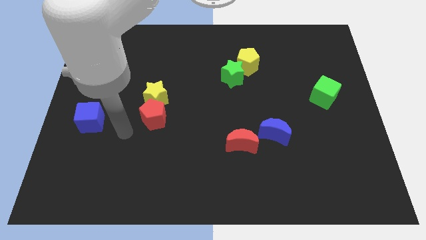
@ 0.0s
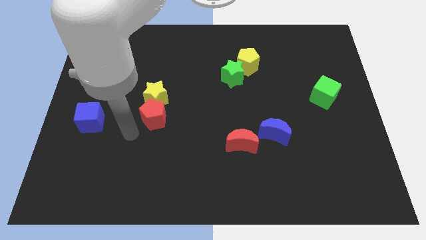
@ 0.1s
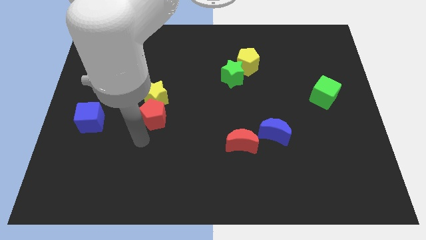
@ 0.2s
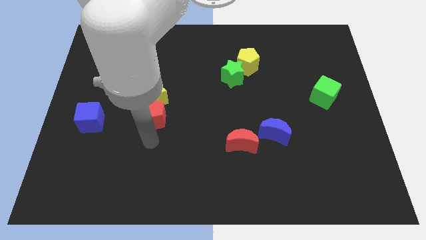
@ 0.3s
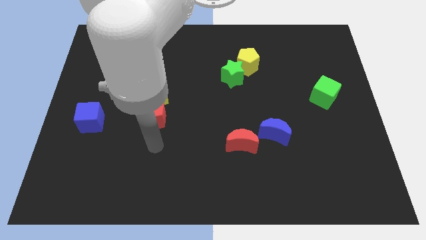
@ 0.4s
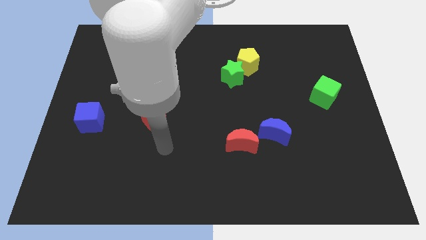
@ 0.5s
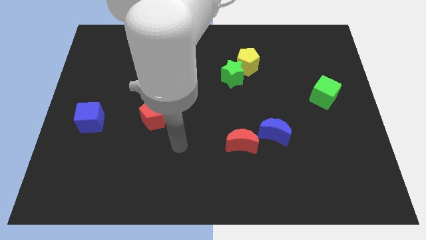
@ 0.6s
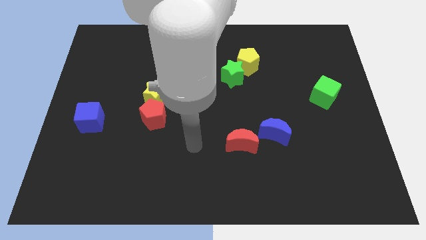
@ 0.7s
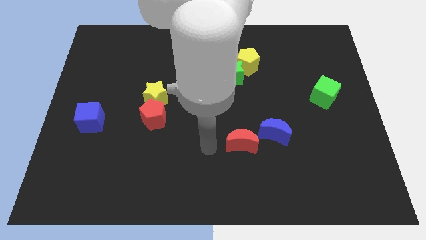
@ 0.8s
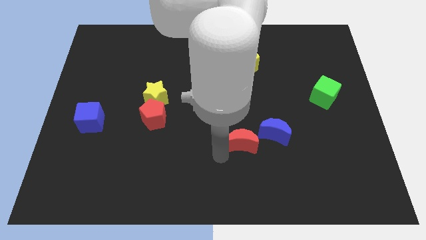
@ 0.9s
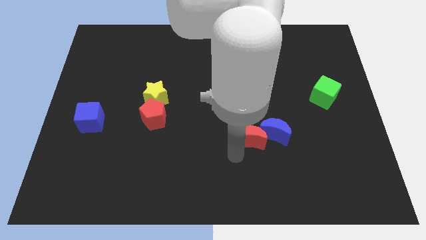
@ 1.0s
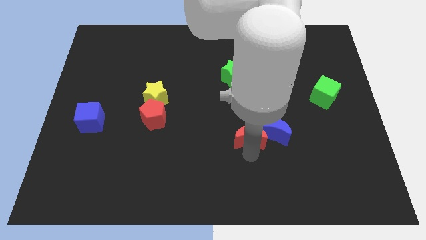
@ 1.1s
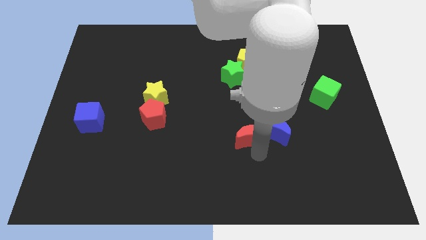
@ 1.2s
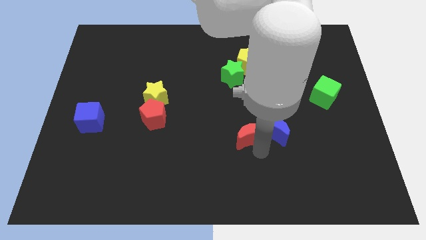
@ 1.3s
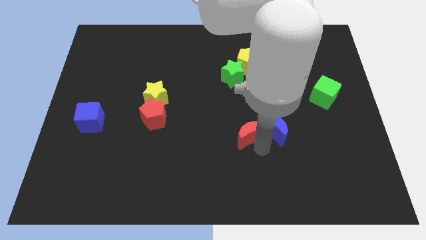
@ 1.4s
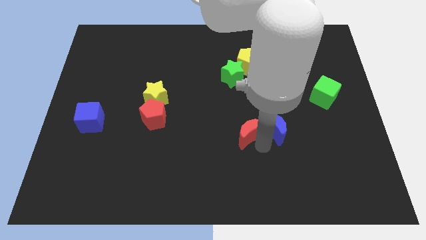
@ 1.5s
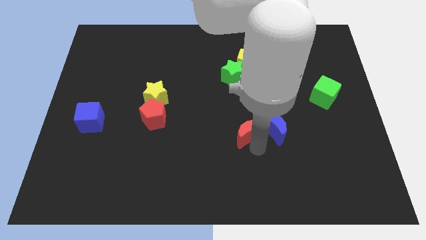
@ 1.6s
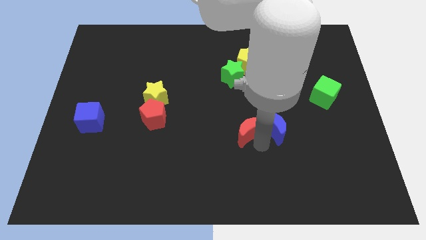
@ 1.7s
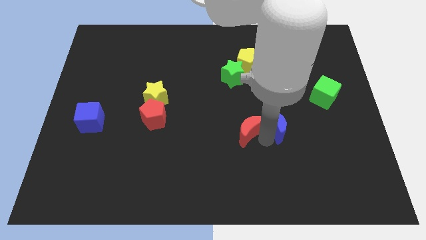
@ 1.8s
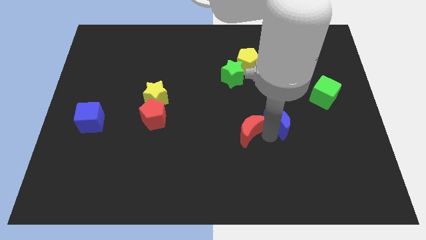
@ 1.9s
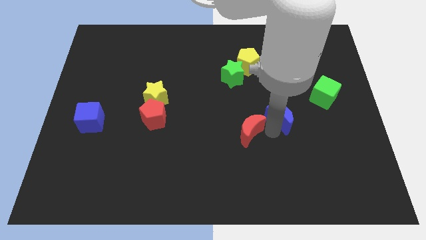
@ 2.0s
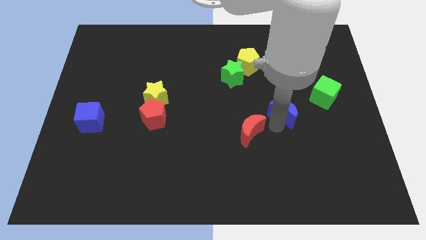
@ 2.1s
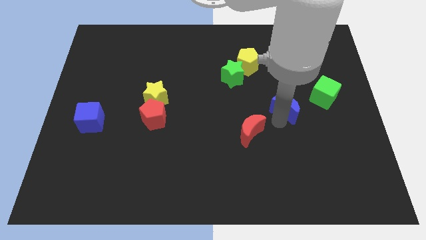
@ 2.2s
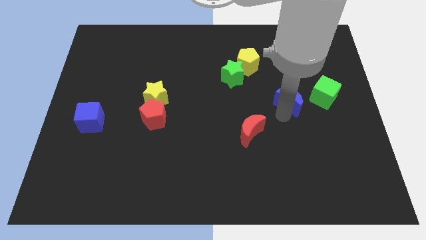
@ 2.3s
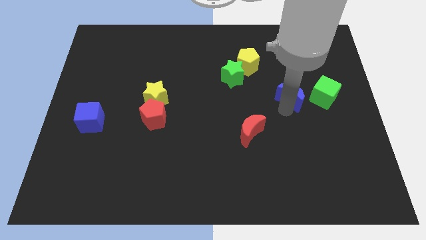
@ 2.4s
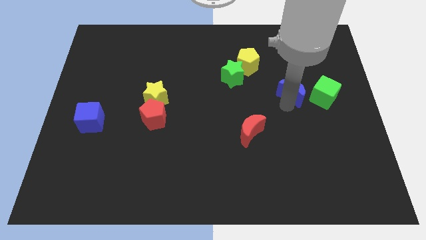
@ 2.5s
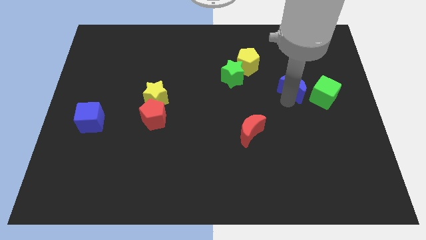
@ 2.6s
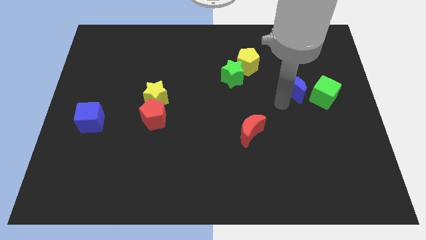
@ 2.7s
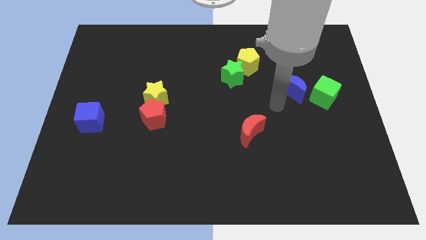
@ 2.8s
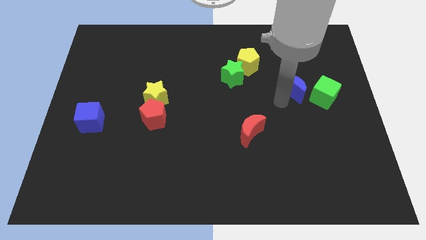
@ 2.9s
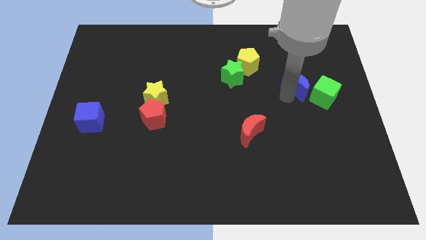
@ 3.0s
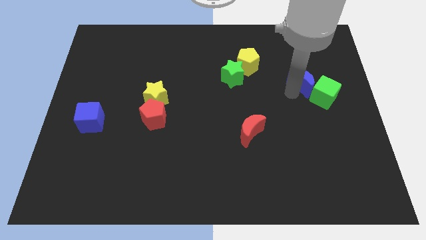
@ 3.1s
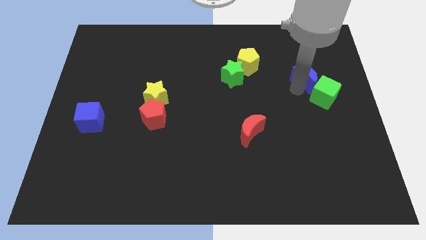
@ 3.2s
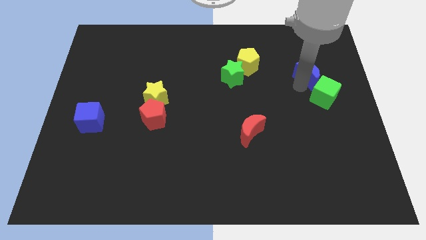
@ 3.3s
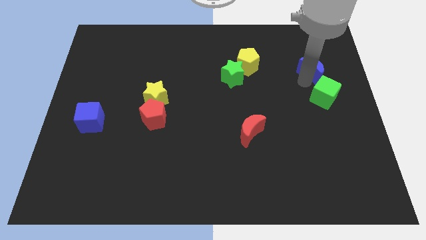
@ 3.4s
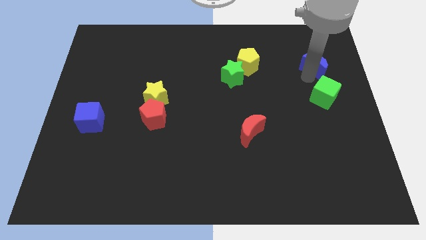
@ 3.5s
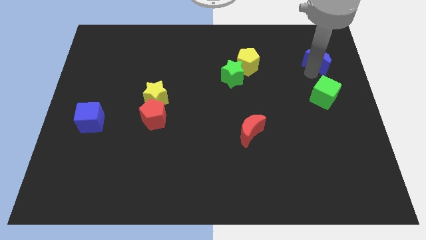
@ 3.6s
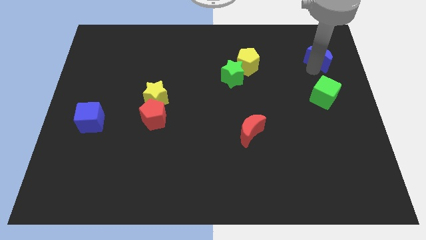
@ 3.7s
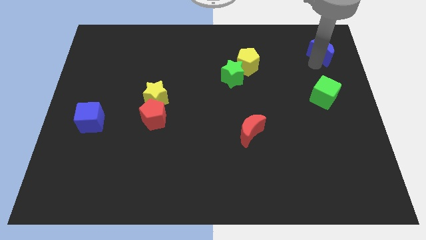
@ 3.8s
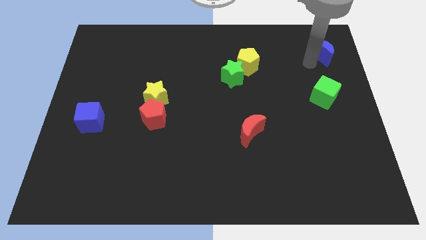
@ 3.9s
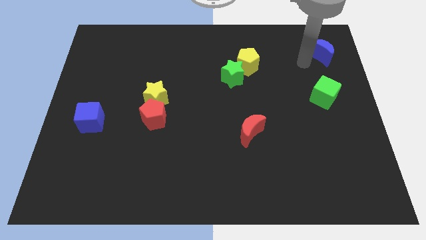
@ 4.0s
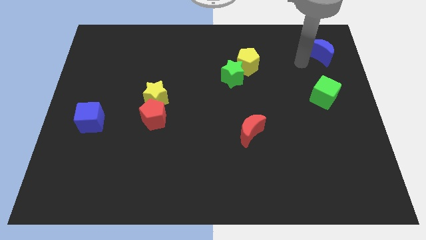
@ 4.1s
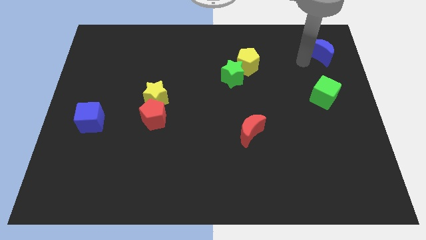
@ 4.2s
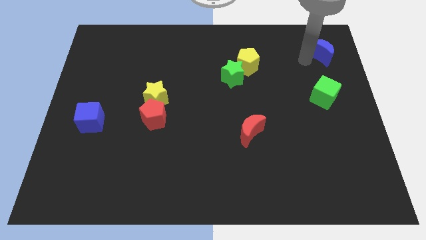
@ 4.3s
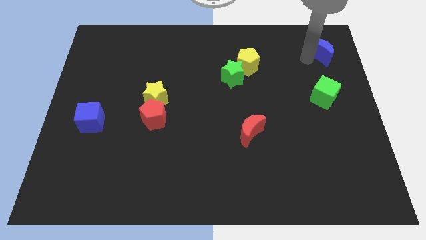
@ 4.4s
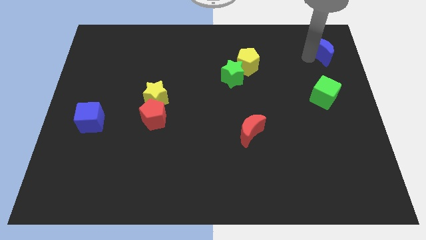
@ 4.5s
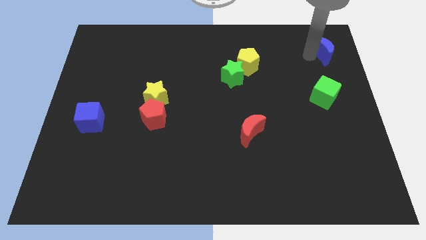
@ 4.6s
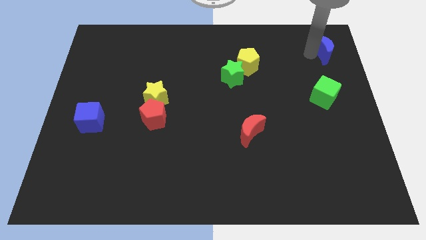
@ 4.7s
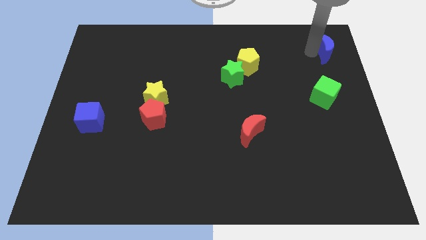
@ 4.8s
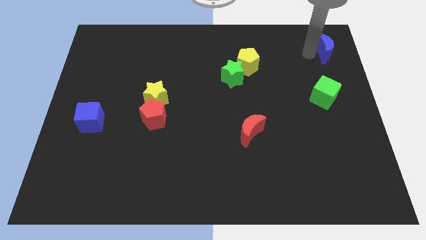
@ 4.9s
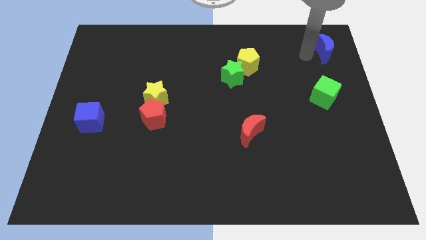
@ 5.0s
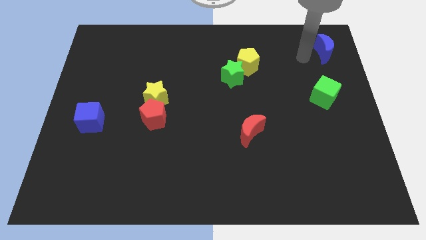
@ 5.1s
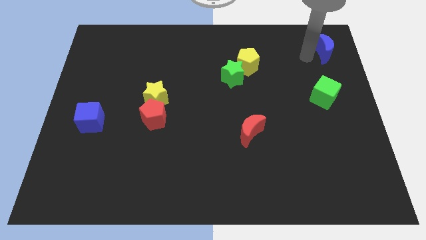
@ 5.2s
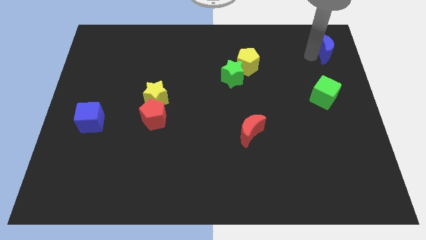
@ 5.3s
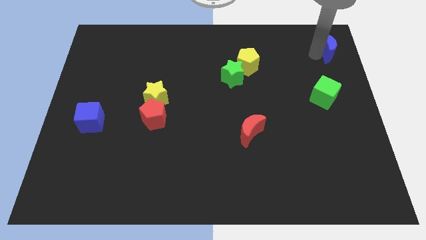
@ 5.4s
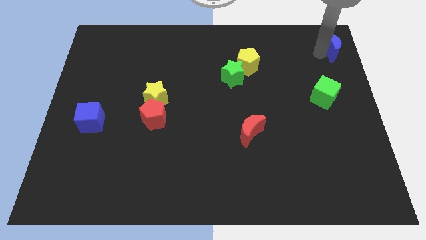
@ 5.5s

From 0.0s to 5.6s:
push the blue moon to the top right of the board

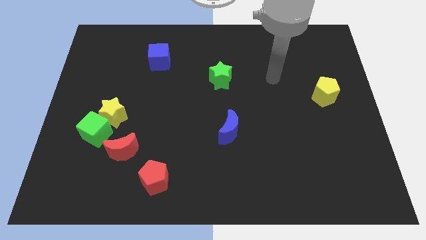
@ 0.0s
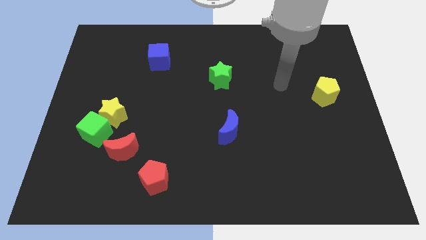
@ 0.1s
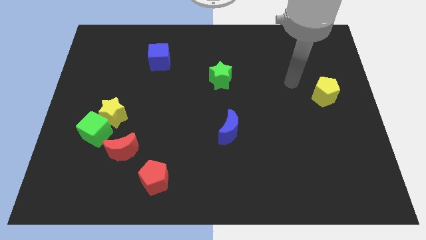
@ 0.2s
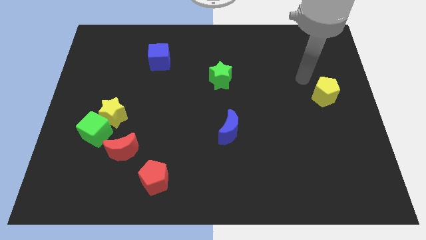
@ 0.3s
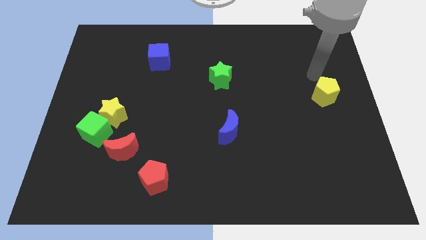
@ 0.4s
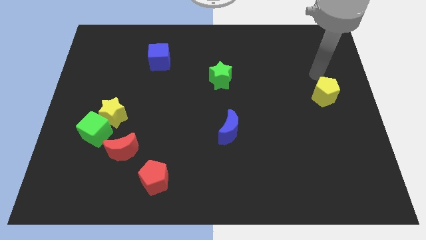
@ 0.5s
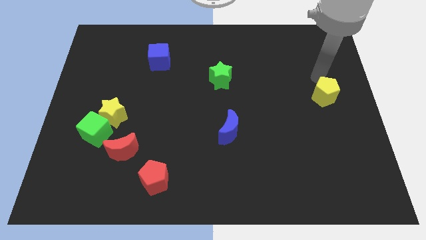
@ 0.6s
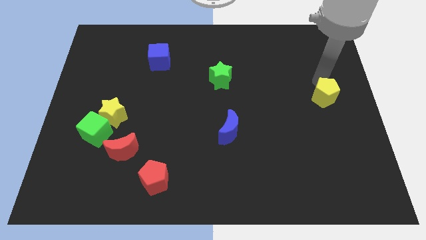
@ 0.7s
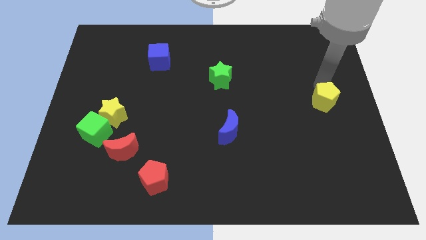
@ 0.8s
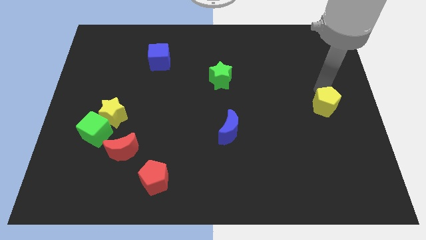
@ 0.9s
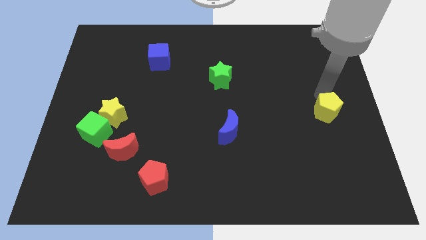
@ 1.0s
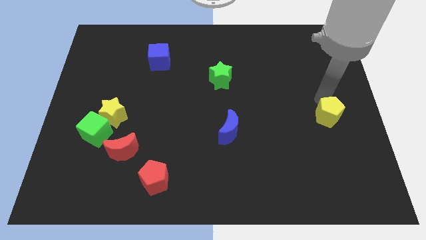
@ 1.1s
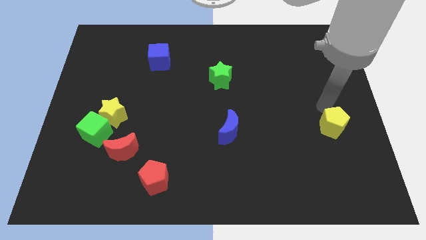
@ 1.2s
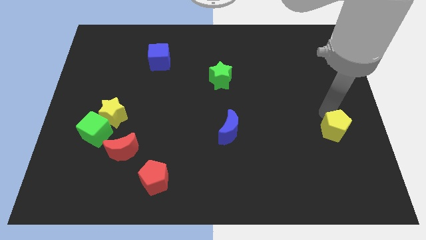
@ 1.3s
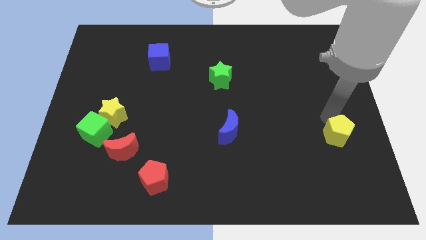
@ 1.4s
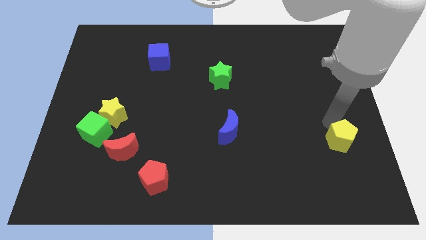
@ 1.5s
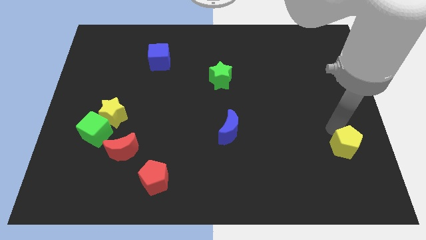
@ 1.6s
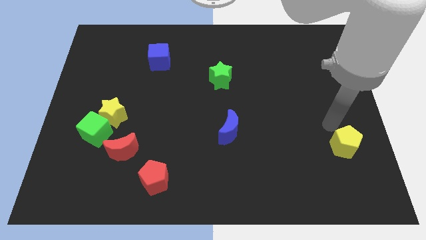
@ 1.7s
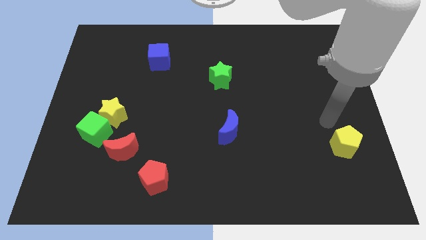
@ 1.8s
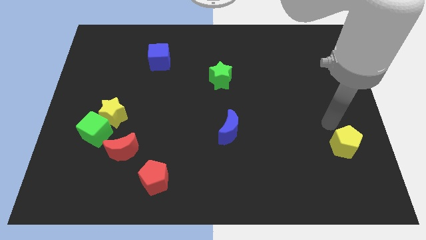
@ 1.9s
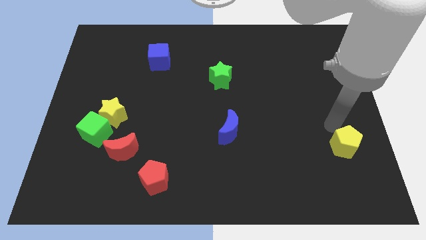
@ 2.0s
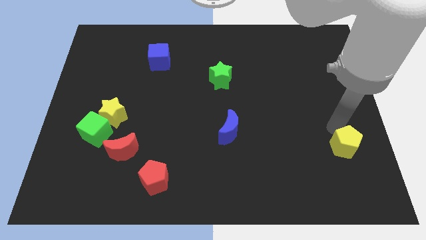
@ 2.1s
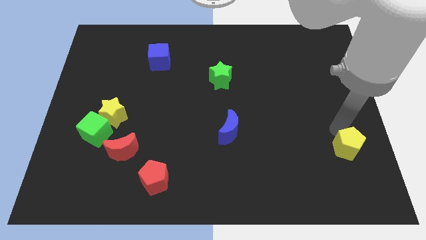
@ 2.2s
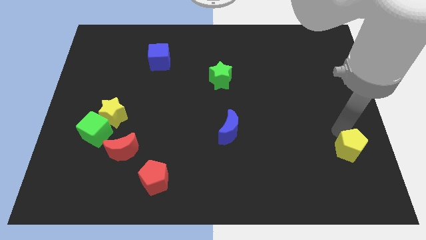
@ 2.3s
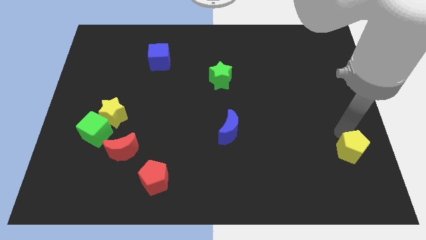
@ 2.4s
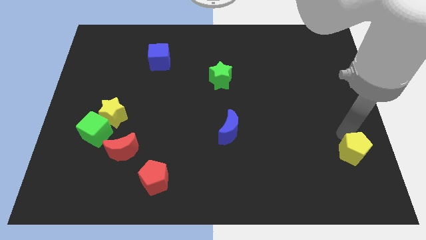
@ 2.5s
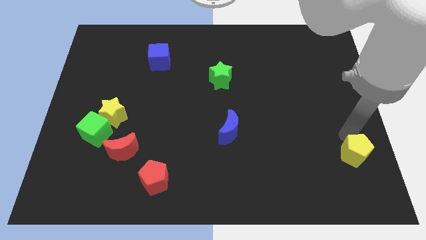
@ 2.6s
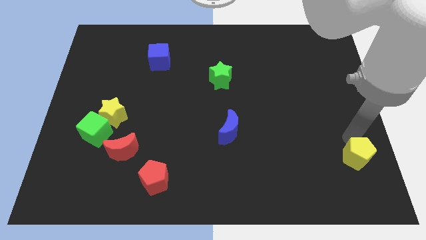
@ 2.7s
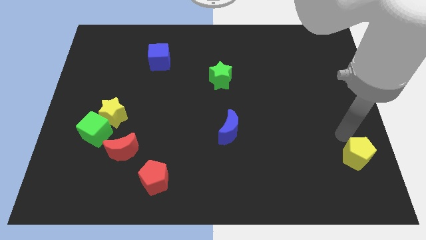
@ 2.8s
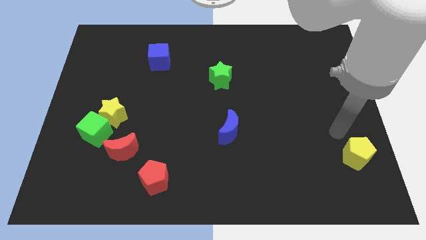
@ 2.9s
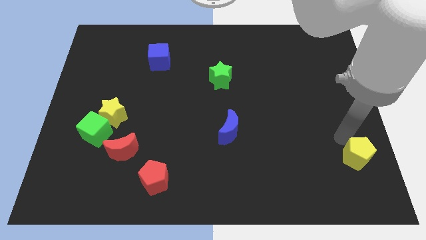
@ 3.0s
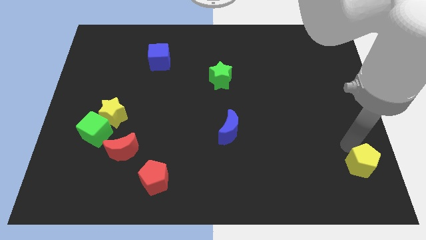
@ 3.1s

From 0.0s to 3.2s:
put the yellow pentagon to the lower right corner
